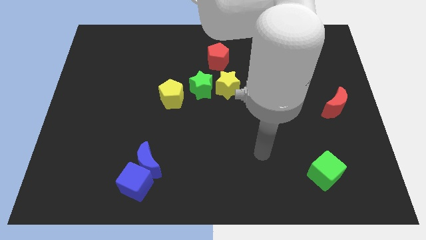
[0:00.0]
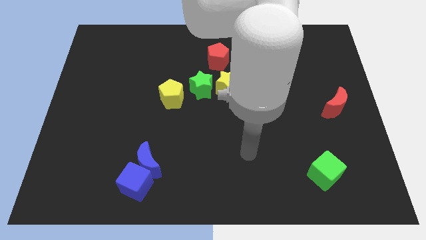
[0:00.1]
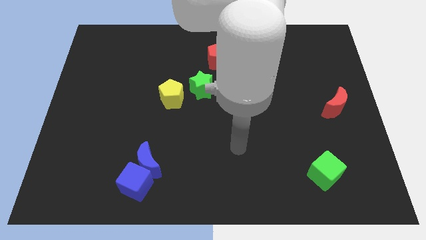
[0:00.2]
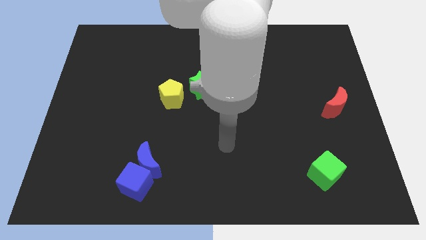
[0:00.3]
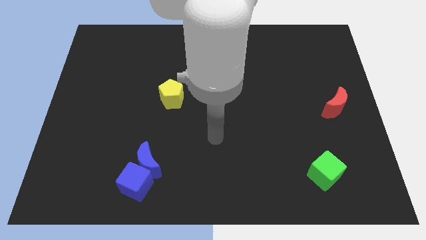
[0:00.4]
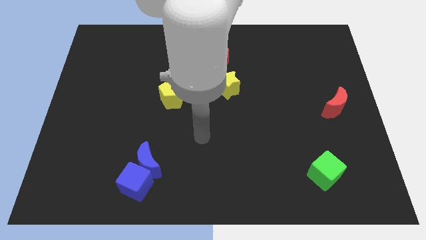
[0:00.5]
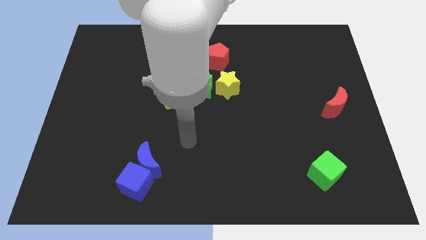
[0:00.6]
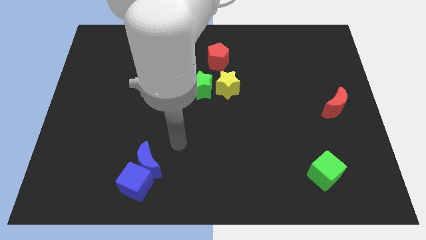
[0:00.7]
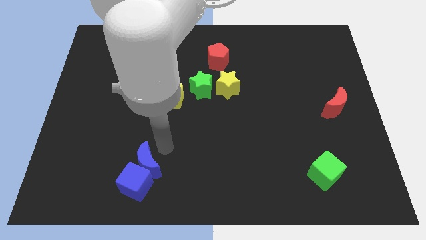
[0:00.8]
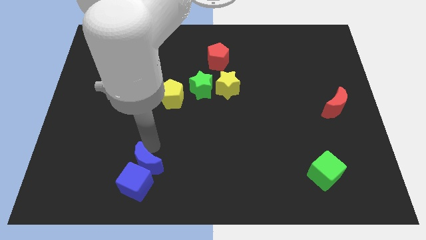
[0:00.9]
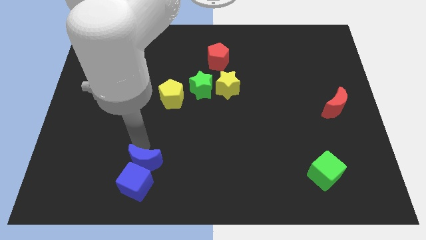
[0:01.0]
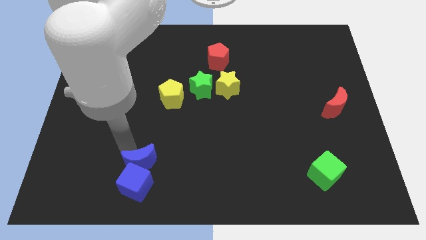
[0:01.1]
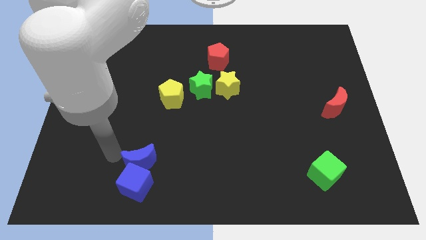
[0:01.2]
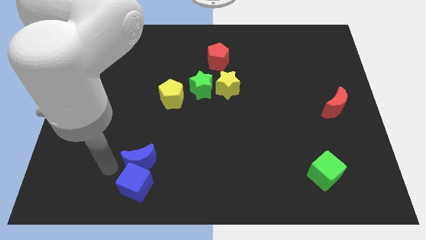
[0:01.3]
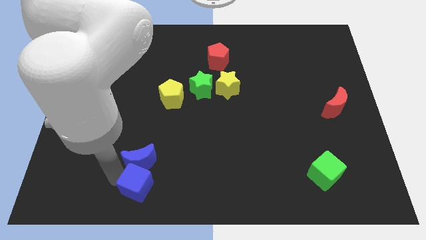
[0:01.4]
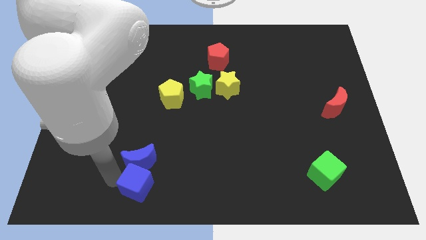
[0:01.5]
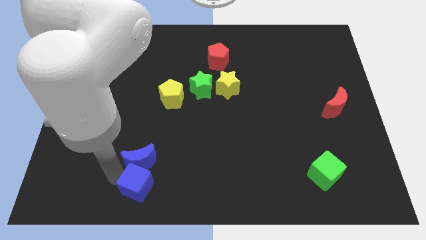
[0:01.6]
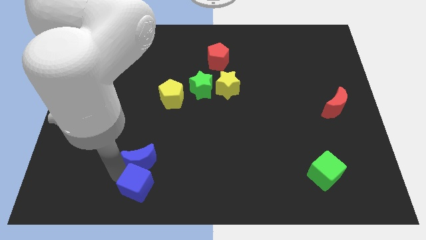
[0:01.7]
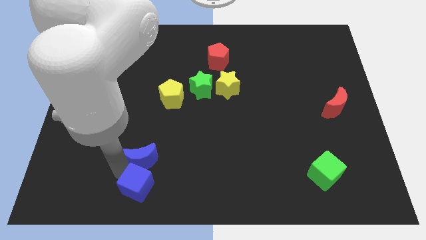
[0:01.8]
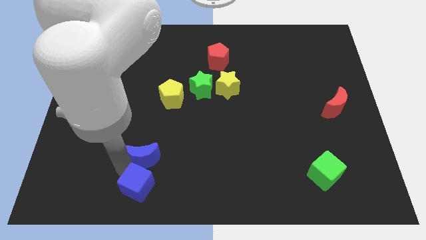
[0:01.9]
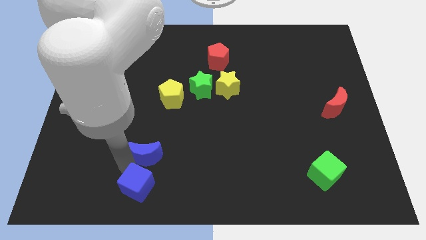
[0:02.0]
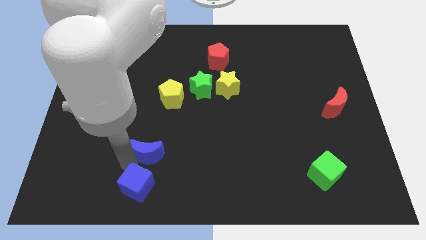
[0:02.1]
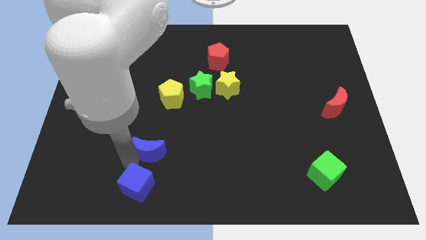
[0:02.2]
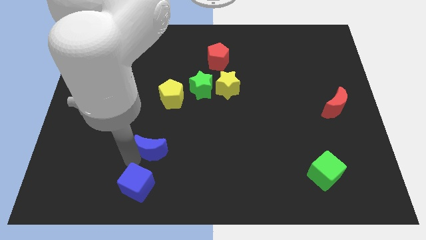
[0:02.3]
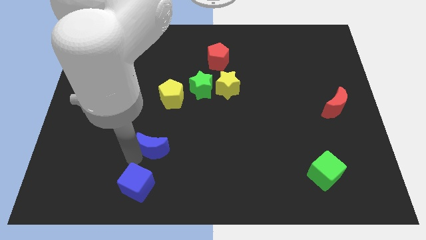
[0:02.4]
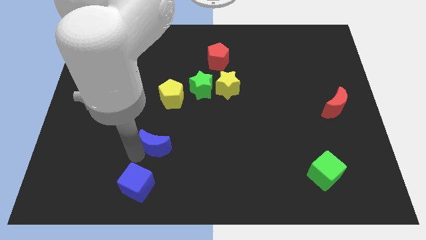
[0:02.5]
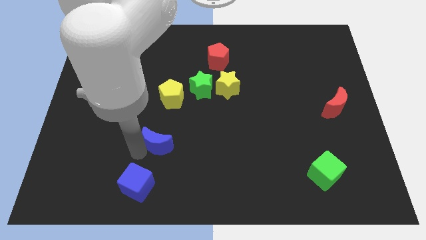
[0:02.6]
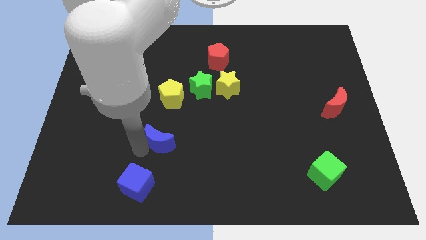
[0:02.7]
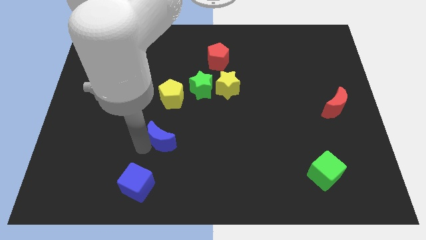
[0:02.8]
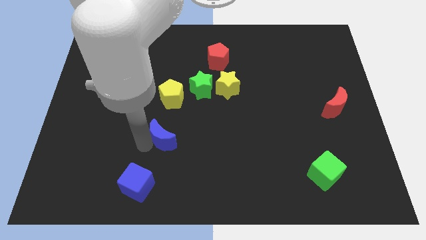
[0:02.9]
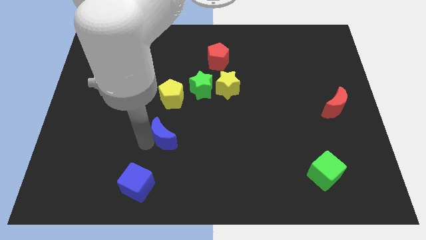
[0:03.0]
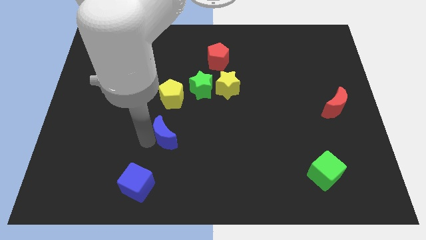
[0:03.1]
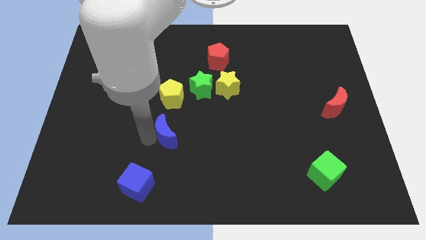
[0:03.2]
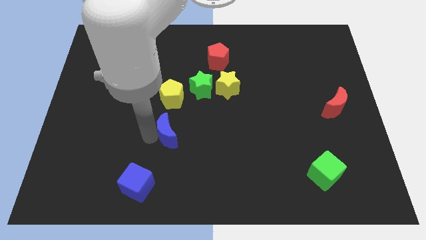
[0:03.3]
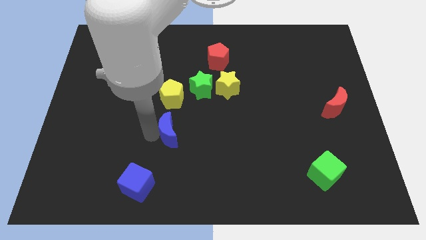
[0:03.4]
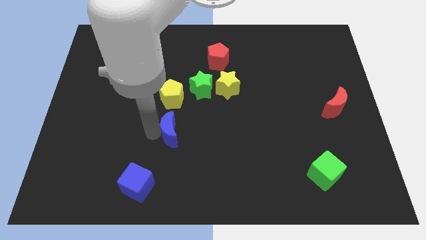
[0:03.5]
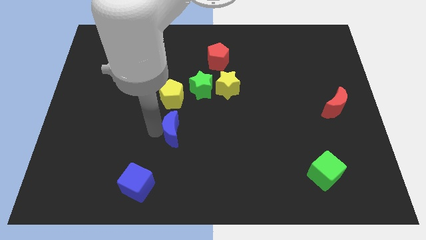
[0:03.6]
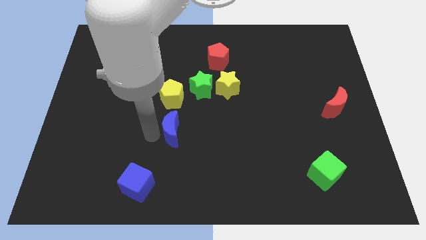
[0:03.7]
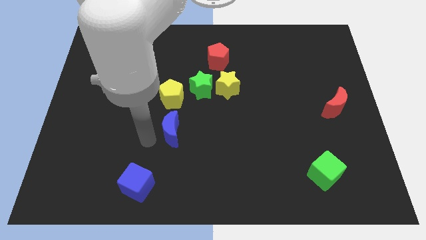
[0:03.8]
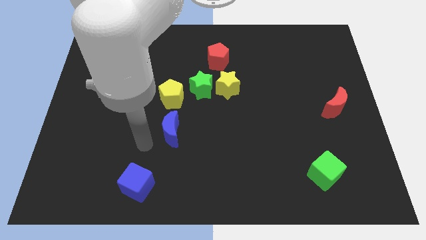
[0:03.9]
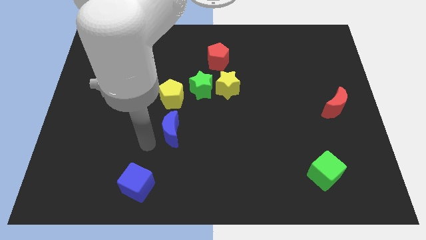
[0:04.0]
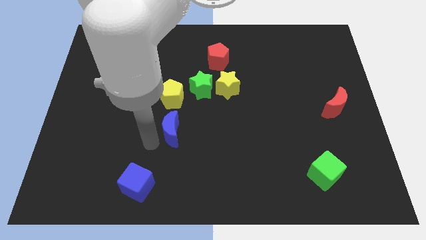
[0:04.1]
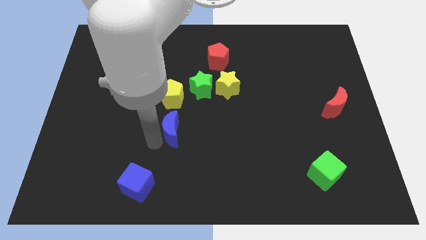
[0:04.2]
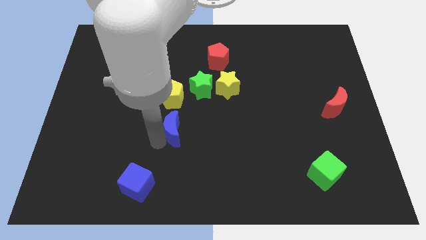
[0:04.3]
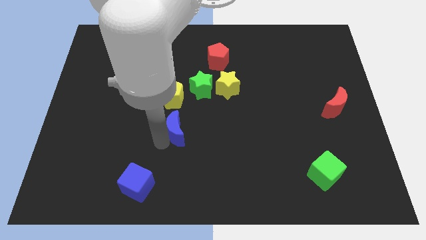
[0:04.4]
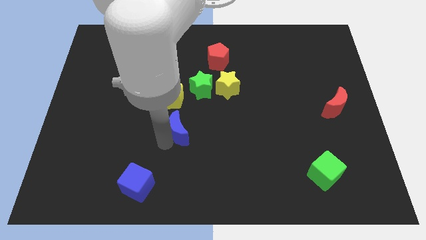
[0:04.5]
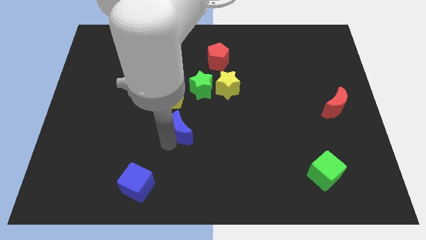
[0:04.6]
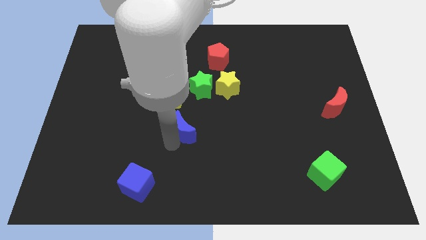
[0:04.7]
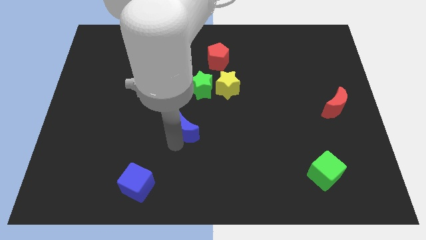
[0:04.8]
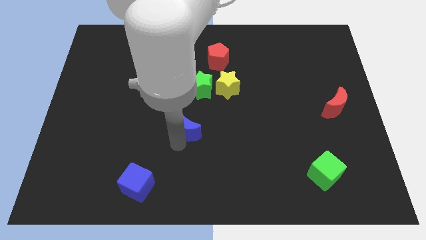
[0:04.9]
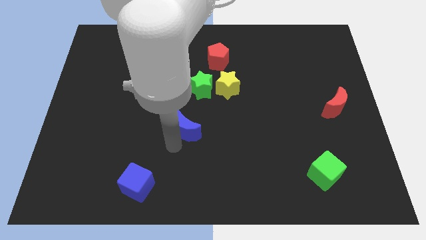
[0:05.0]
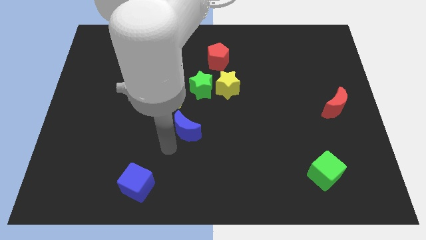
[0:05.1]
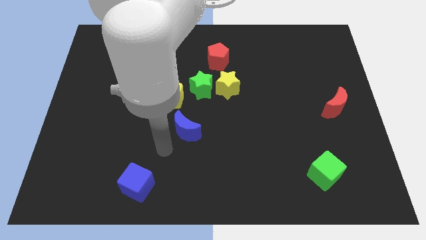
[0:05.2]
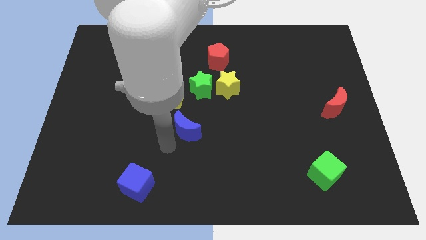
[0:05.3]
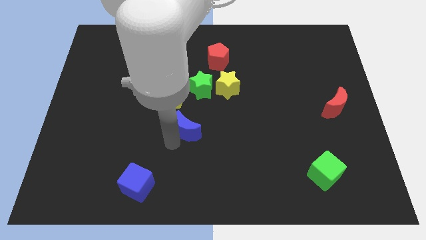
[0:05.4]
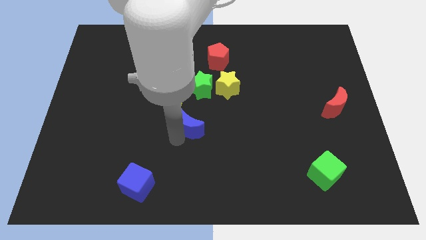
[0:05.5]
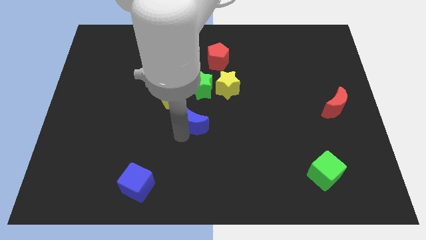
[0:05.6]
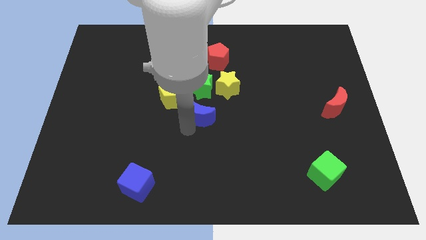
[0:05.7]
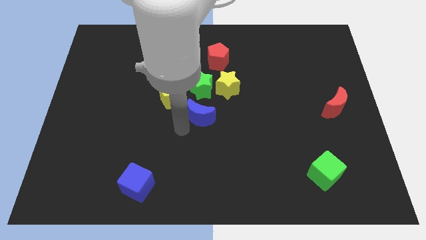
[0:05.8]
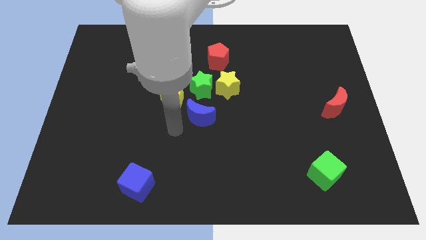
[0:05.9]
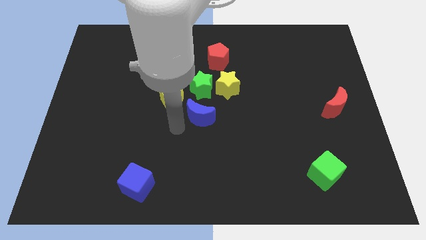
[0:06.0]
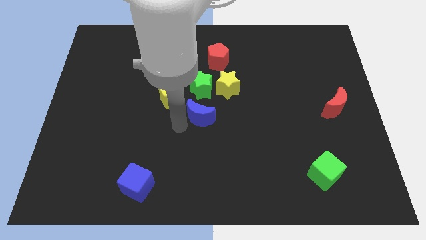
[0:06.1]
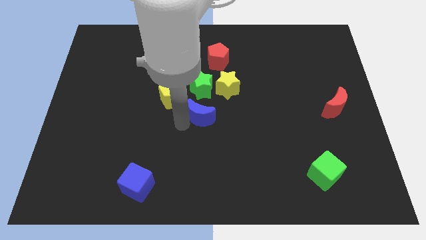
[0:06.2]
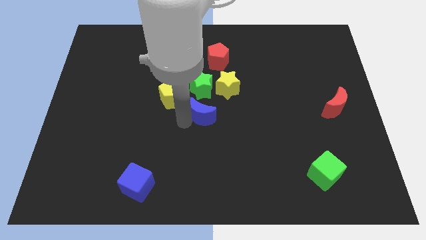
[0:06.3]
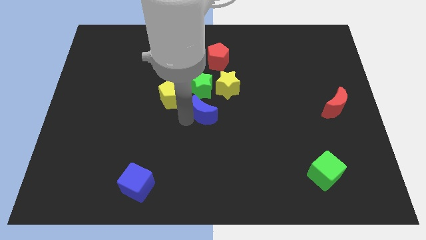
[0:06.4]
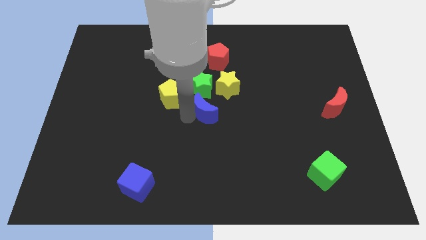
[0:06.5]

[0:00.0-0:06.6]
slide the blue moon diagonally down and to the right of the green star
